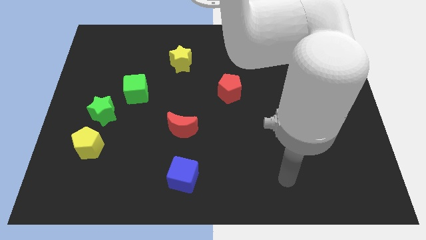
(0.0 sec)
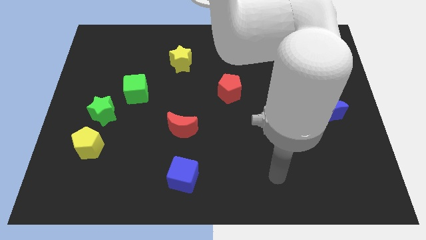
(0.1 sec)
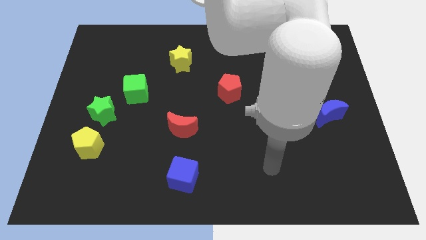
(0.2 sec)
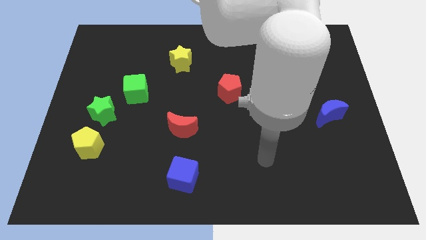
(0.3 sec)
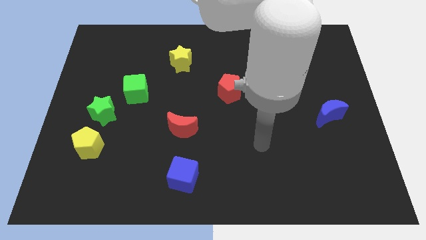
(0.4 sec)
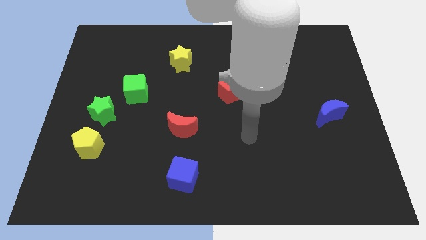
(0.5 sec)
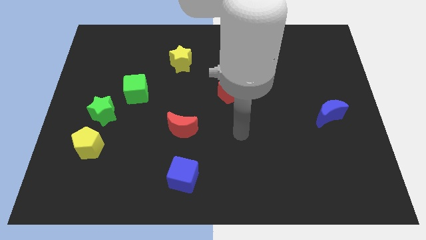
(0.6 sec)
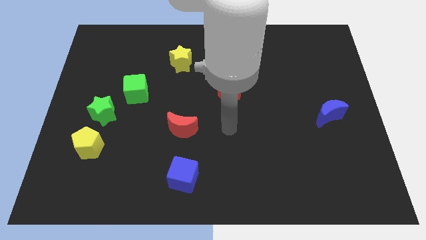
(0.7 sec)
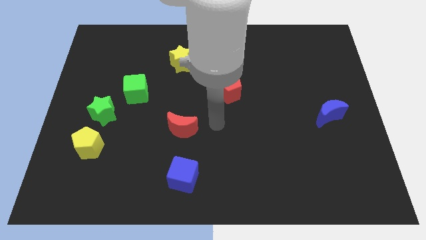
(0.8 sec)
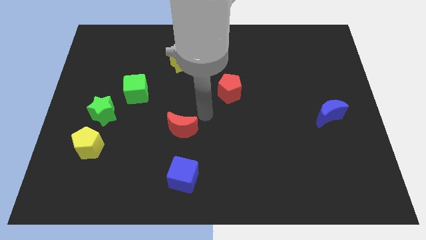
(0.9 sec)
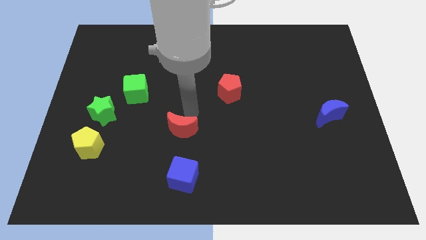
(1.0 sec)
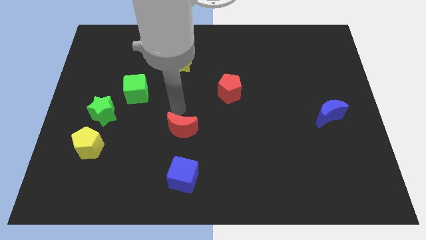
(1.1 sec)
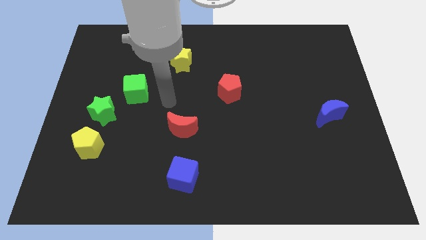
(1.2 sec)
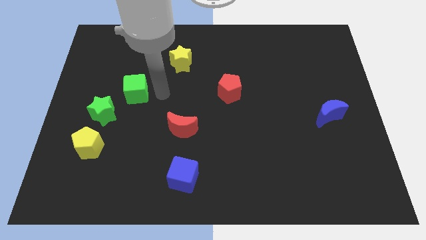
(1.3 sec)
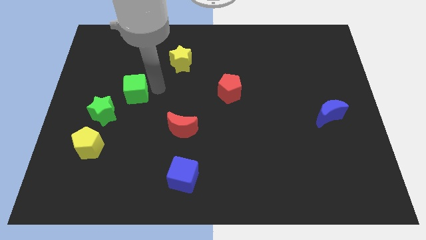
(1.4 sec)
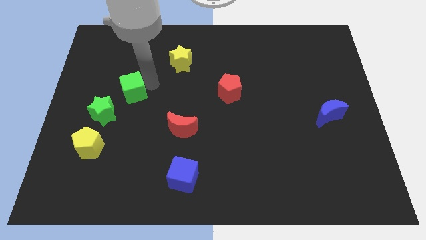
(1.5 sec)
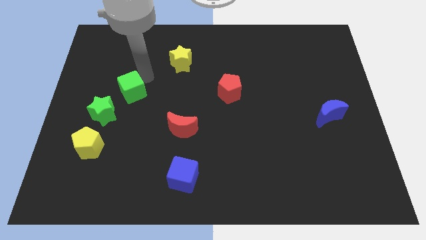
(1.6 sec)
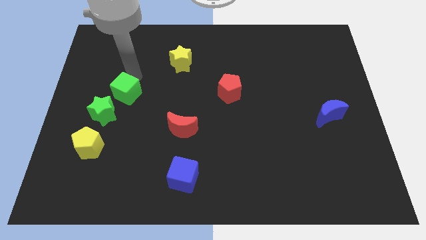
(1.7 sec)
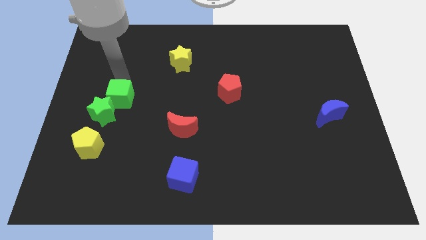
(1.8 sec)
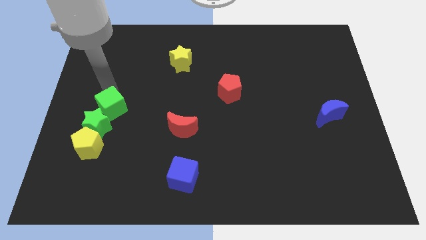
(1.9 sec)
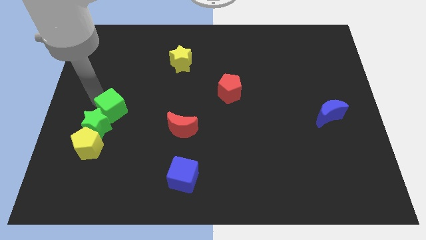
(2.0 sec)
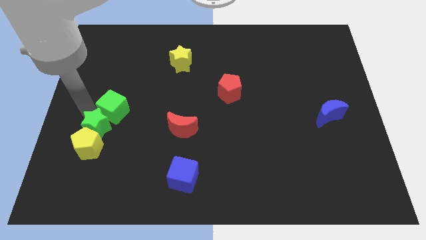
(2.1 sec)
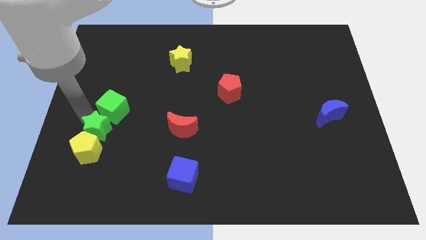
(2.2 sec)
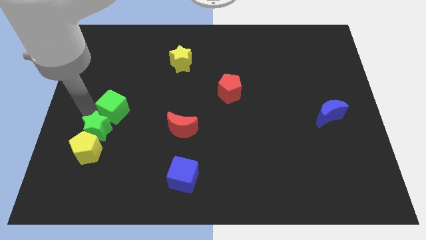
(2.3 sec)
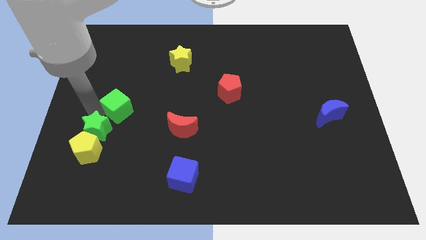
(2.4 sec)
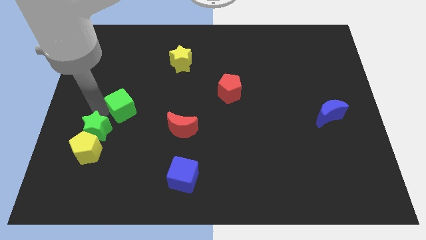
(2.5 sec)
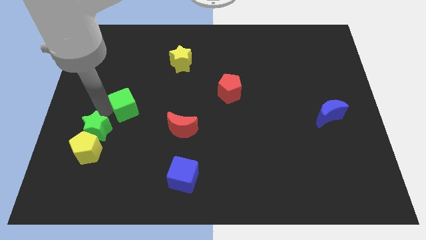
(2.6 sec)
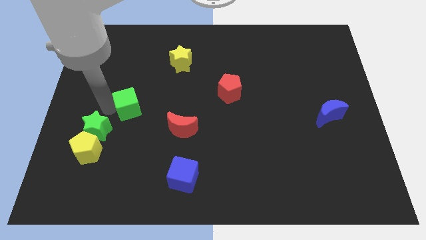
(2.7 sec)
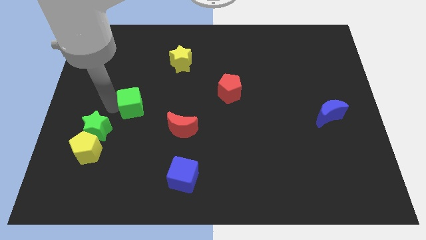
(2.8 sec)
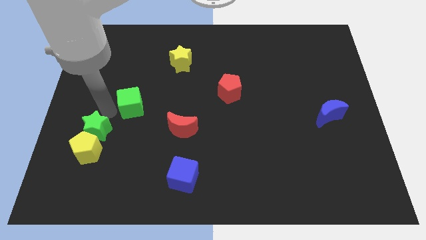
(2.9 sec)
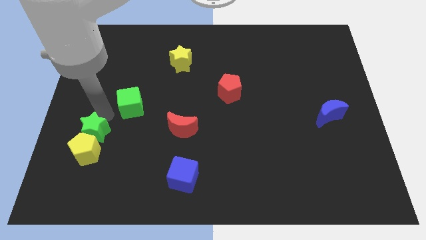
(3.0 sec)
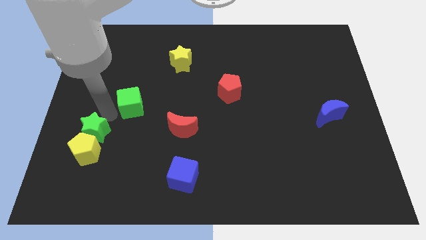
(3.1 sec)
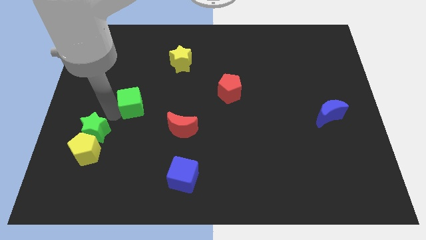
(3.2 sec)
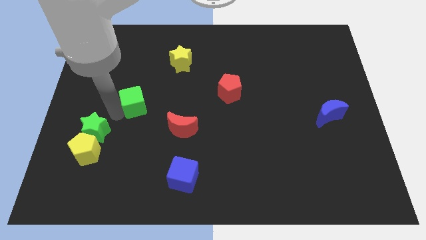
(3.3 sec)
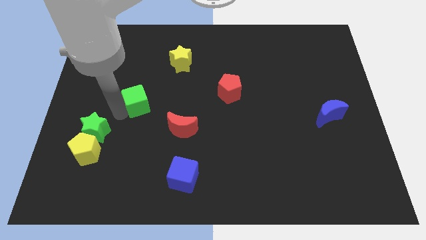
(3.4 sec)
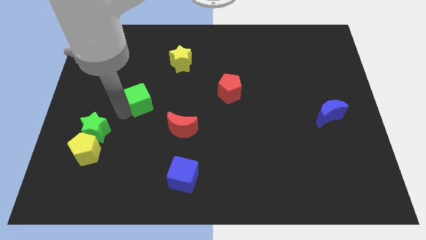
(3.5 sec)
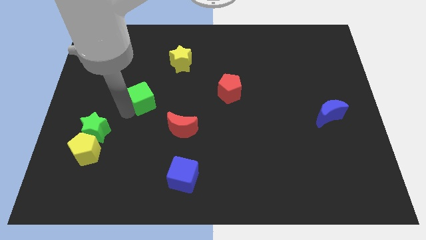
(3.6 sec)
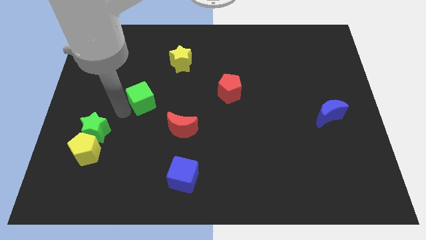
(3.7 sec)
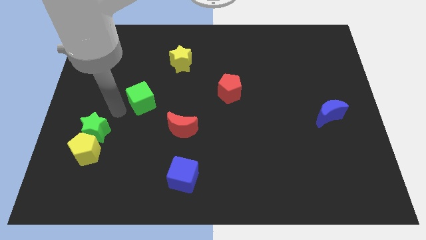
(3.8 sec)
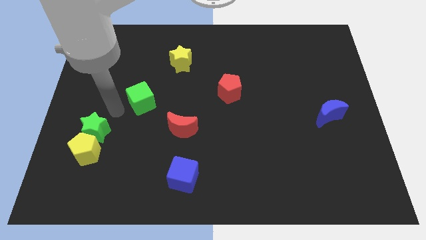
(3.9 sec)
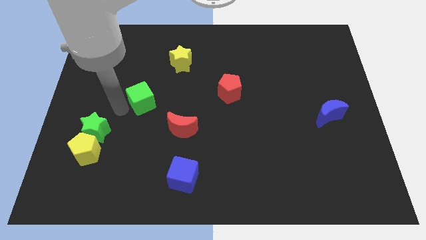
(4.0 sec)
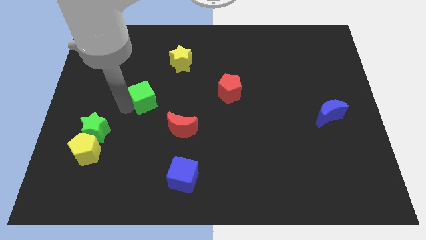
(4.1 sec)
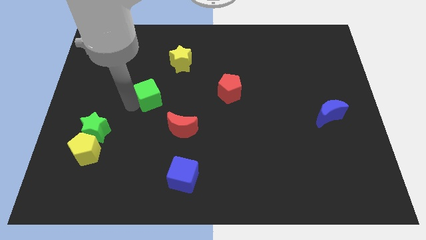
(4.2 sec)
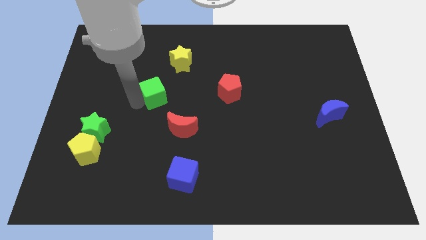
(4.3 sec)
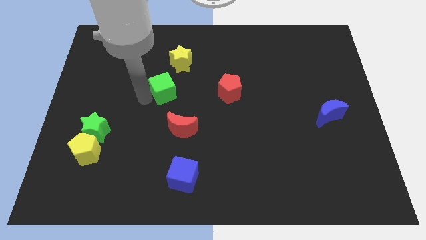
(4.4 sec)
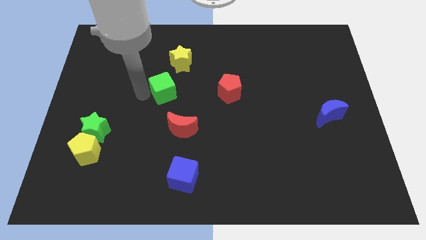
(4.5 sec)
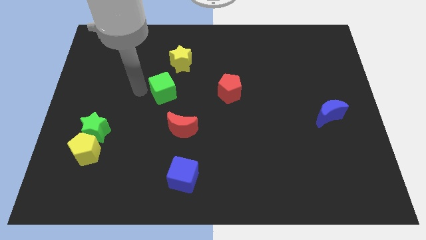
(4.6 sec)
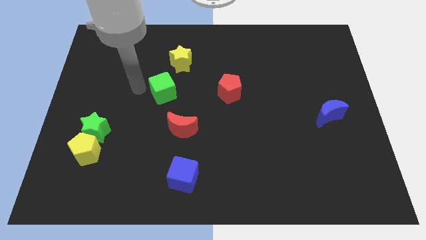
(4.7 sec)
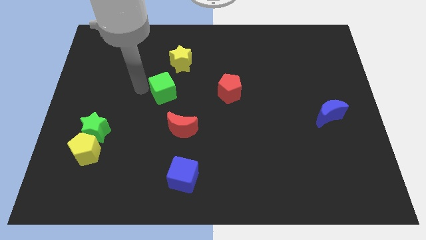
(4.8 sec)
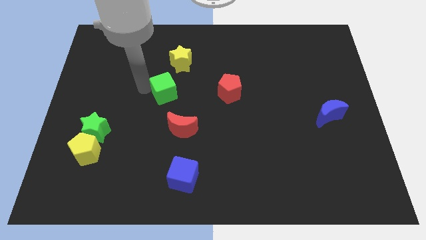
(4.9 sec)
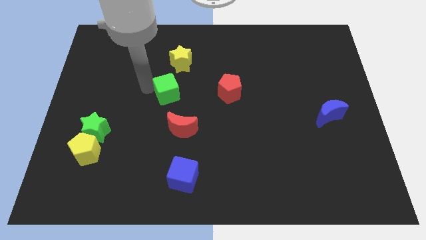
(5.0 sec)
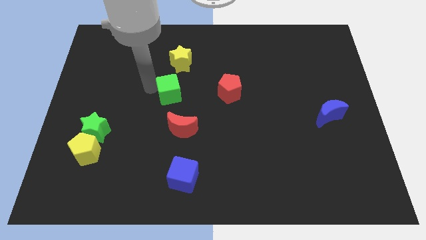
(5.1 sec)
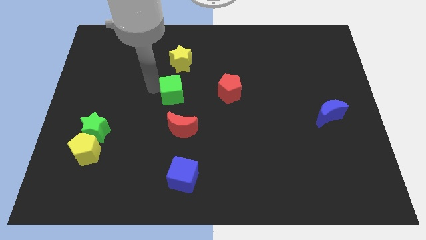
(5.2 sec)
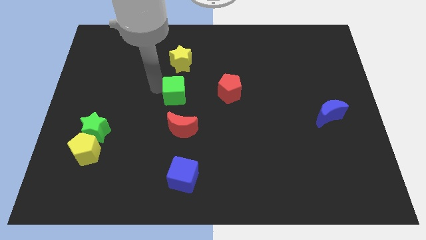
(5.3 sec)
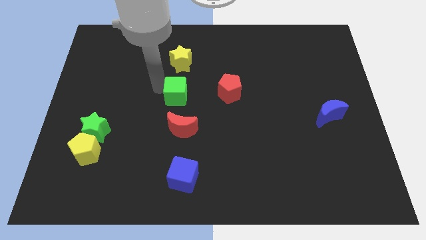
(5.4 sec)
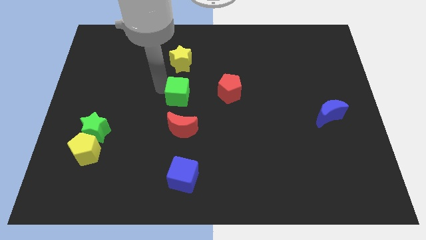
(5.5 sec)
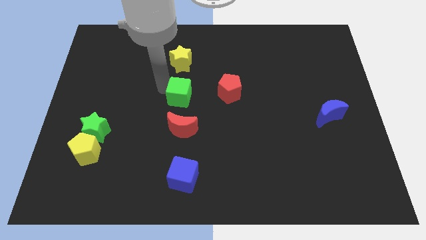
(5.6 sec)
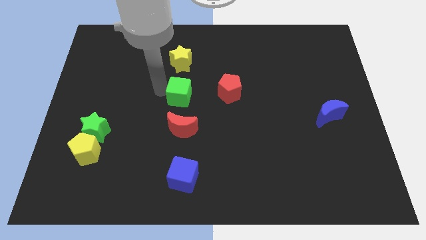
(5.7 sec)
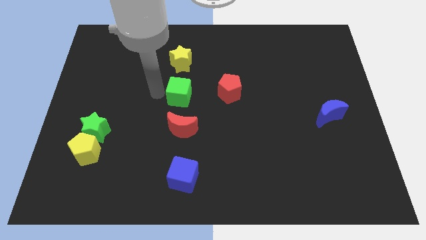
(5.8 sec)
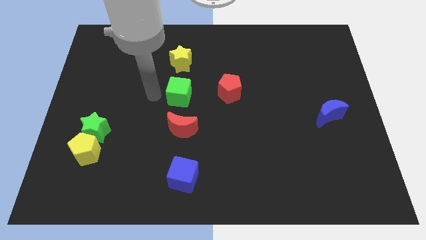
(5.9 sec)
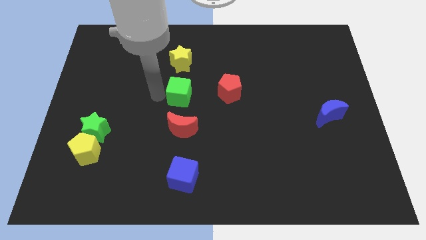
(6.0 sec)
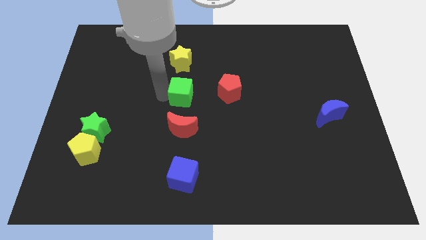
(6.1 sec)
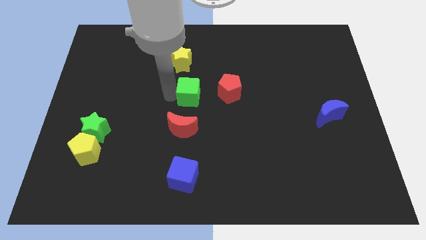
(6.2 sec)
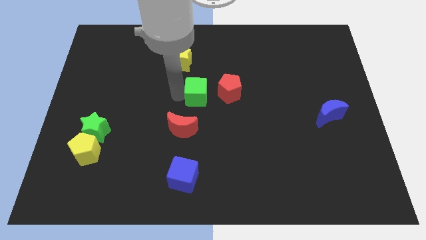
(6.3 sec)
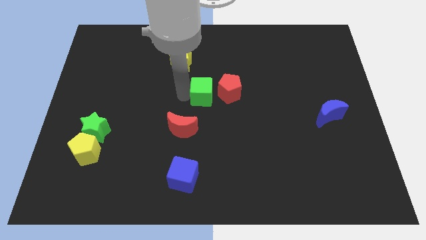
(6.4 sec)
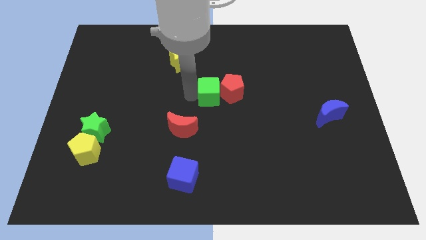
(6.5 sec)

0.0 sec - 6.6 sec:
move the green cube to the red pentagon

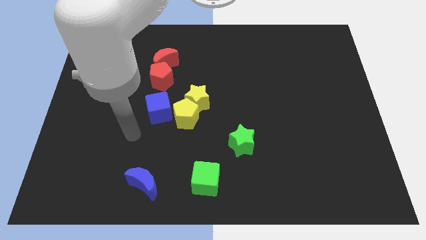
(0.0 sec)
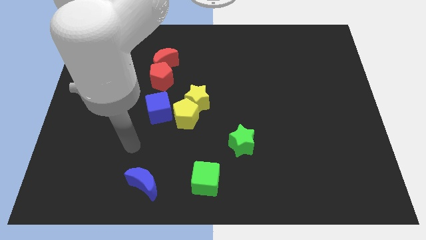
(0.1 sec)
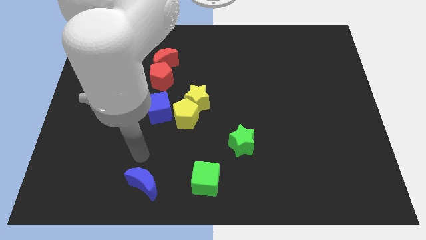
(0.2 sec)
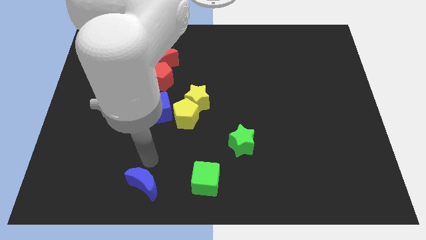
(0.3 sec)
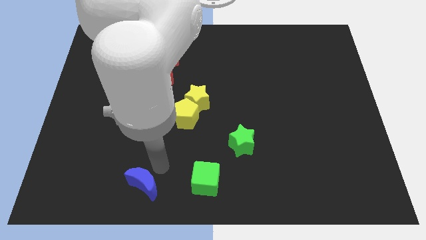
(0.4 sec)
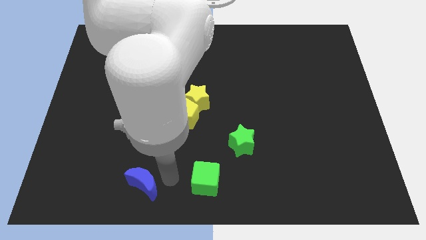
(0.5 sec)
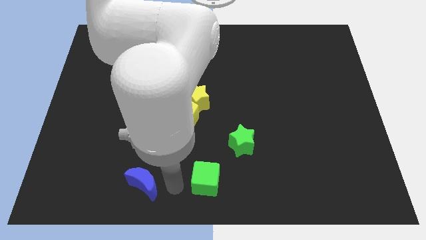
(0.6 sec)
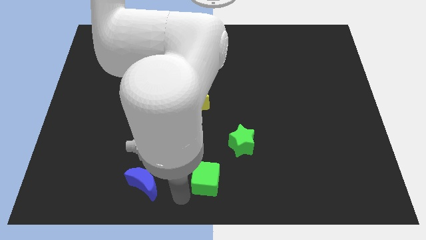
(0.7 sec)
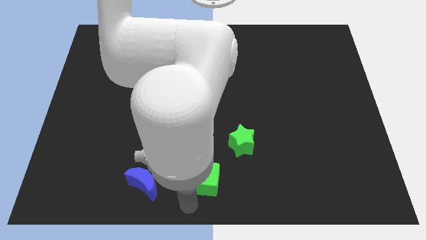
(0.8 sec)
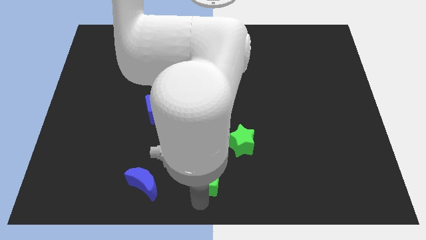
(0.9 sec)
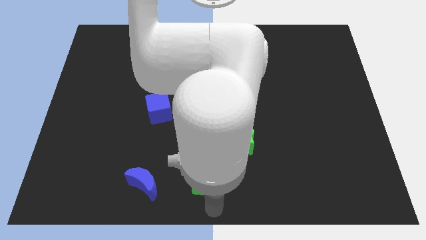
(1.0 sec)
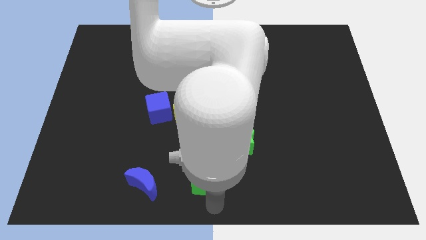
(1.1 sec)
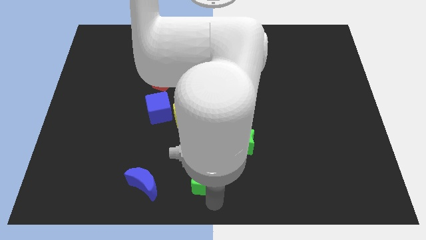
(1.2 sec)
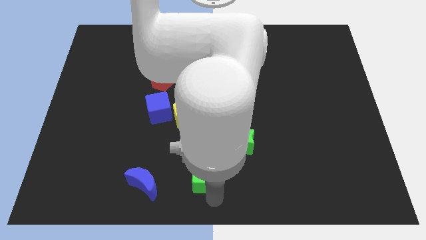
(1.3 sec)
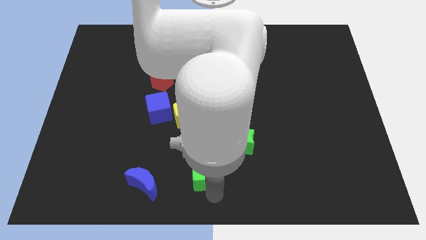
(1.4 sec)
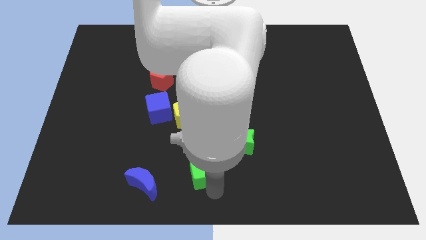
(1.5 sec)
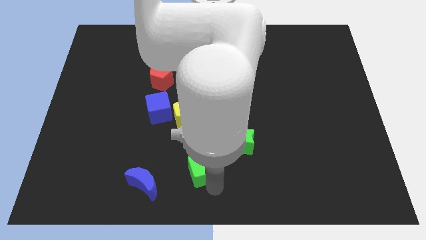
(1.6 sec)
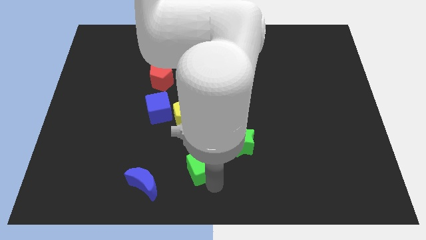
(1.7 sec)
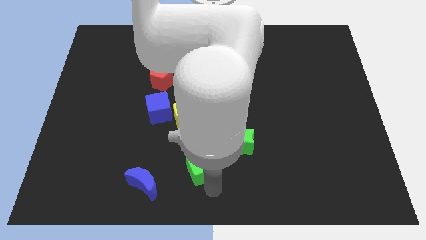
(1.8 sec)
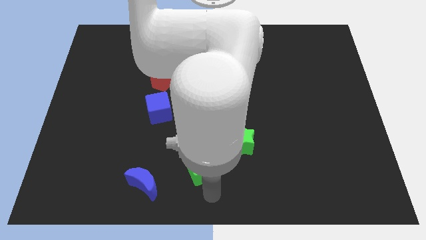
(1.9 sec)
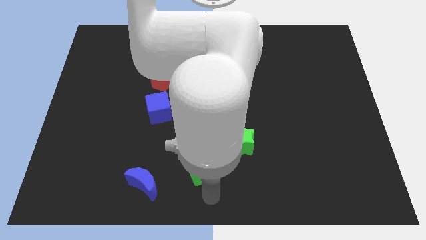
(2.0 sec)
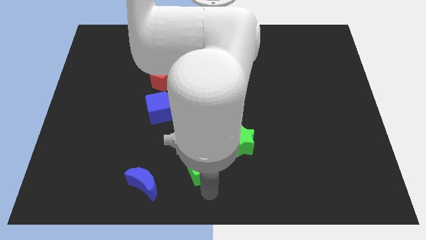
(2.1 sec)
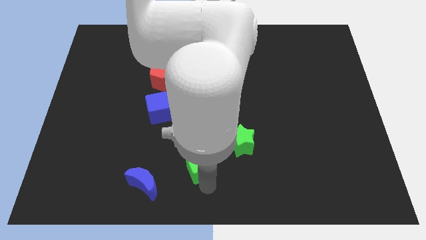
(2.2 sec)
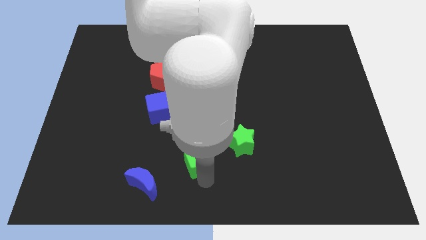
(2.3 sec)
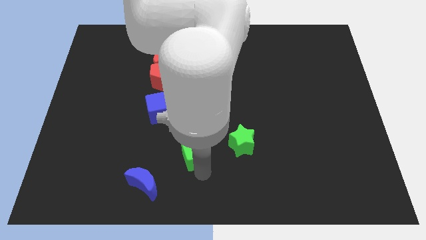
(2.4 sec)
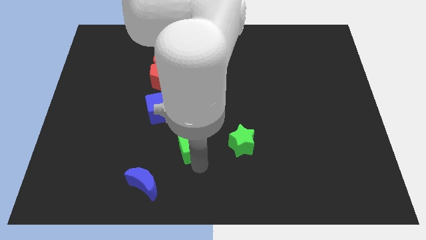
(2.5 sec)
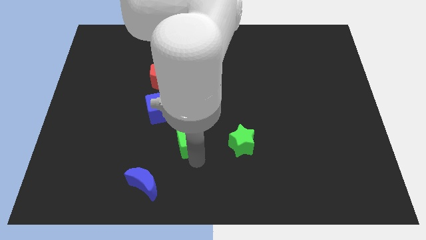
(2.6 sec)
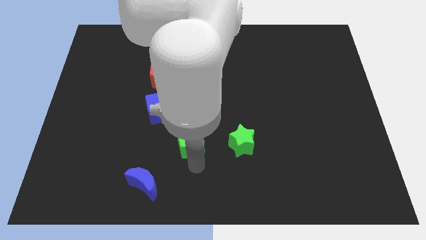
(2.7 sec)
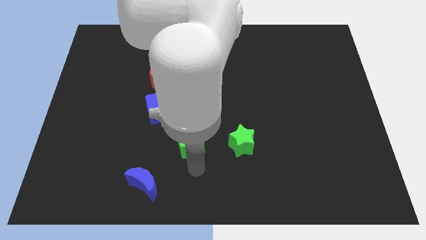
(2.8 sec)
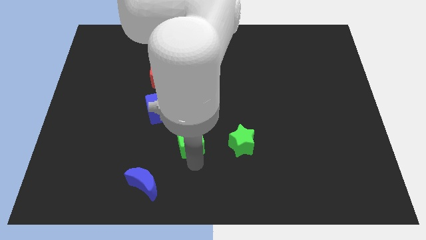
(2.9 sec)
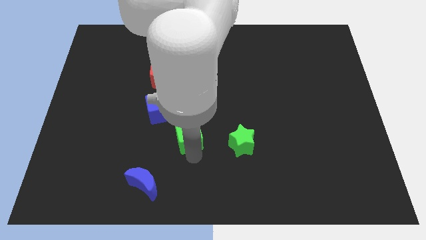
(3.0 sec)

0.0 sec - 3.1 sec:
push the green cube towards the yellow pentagon
